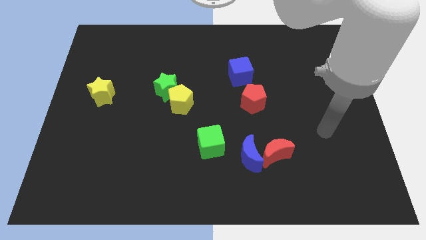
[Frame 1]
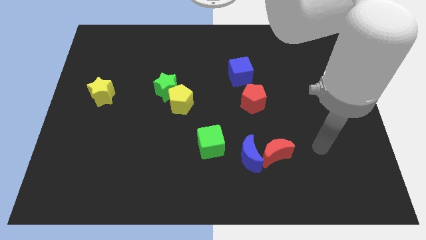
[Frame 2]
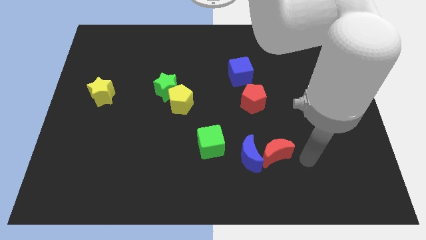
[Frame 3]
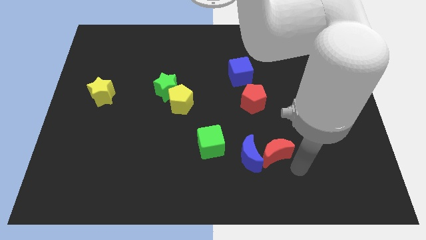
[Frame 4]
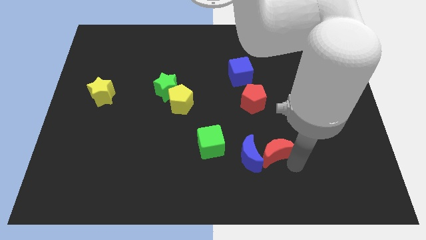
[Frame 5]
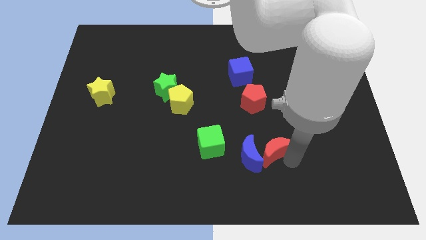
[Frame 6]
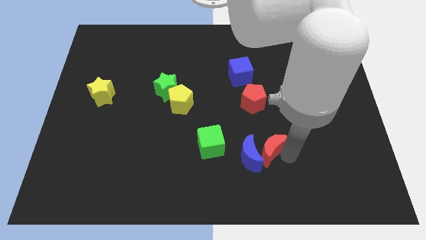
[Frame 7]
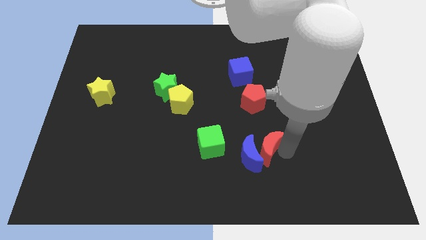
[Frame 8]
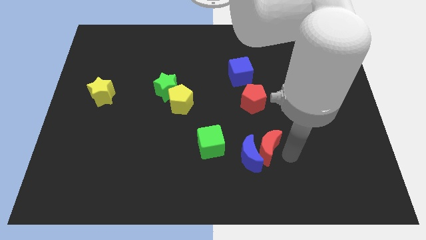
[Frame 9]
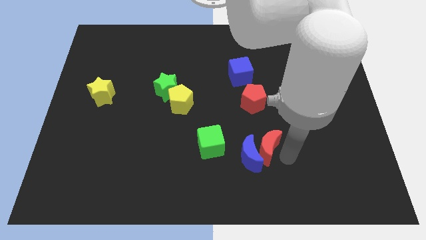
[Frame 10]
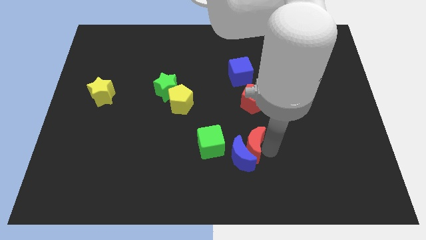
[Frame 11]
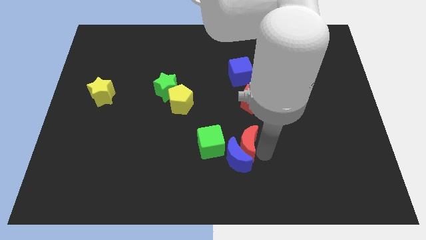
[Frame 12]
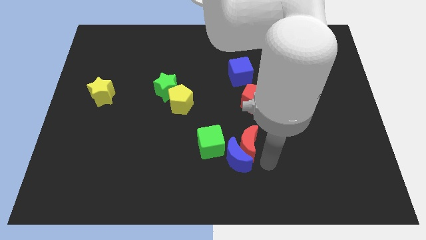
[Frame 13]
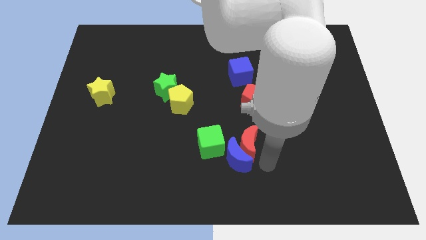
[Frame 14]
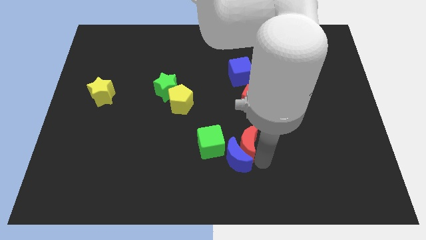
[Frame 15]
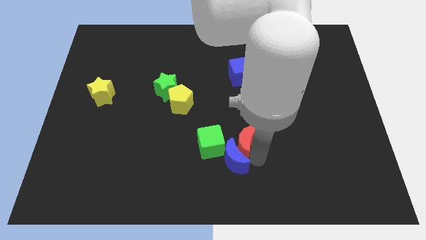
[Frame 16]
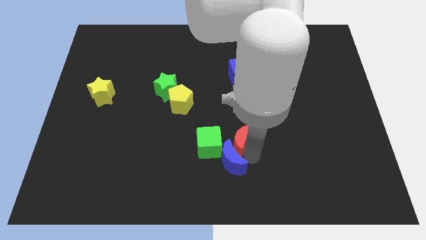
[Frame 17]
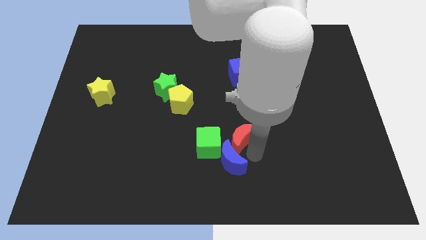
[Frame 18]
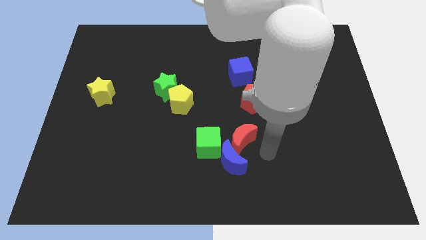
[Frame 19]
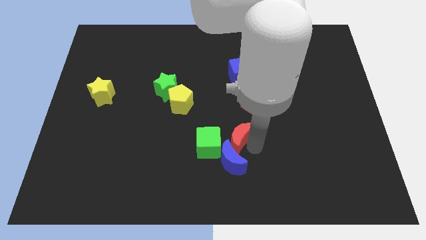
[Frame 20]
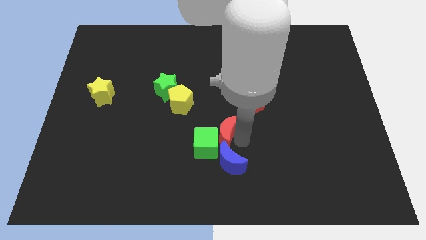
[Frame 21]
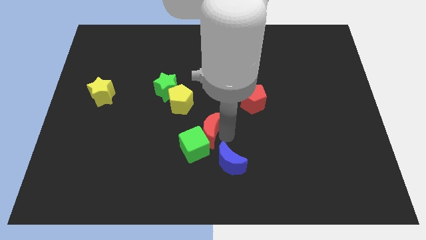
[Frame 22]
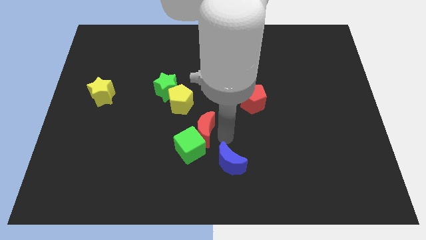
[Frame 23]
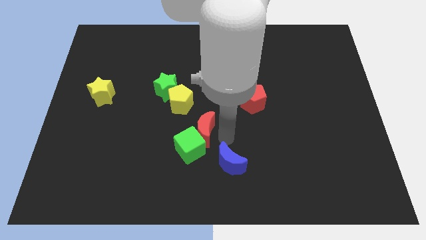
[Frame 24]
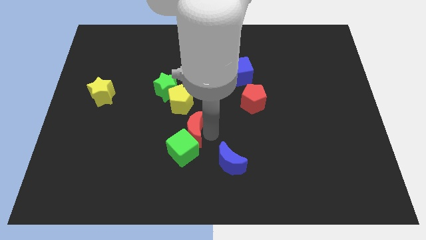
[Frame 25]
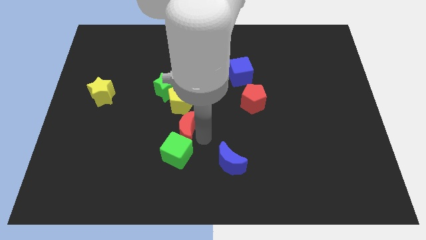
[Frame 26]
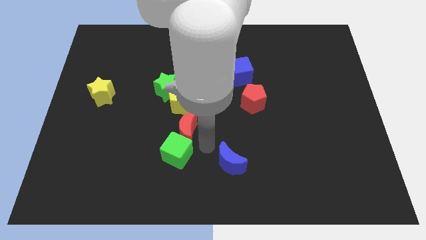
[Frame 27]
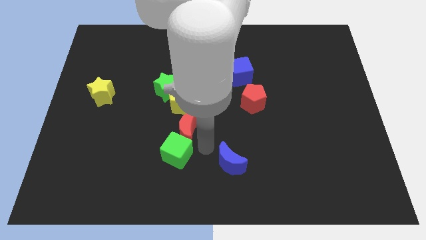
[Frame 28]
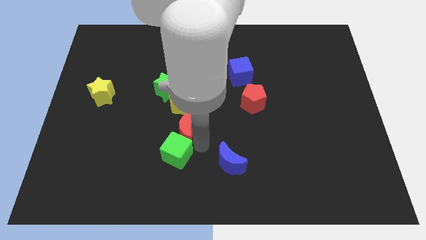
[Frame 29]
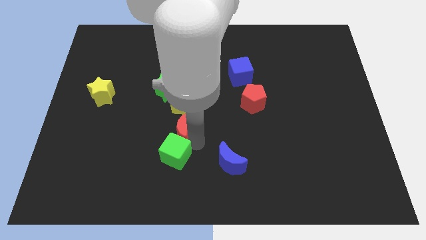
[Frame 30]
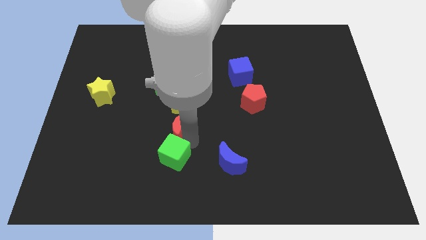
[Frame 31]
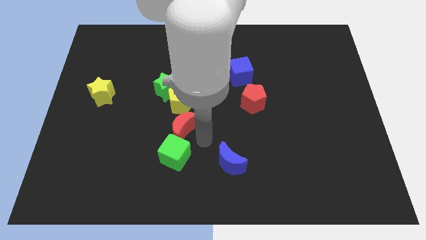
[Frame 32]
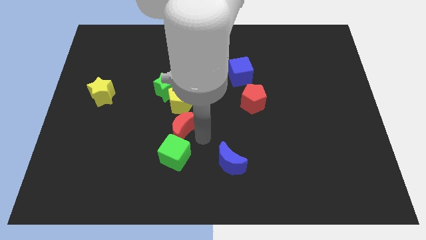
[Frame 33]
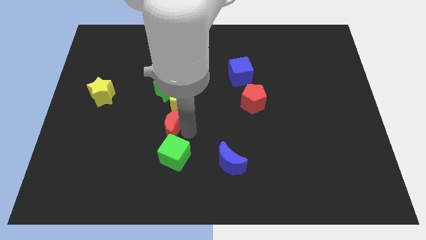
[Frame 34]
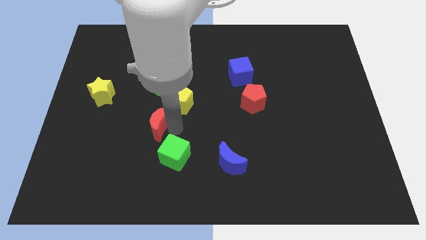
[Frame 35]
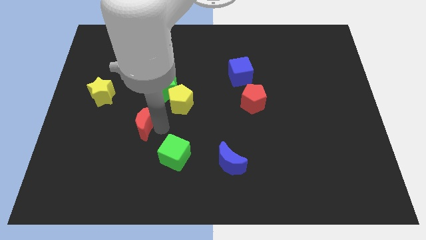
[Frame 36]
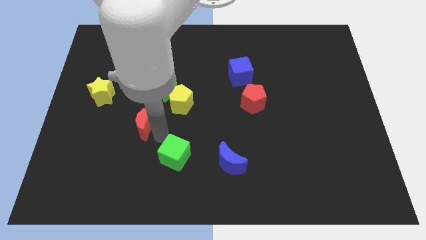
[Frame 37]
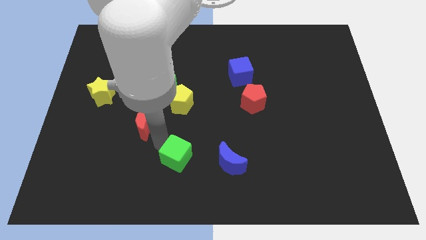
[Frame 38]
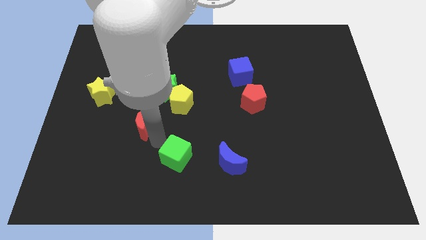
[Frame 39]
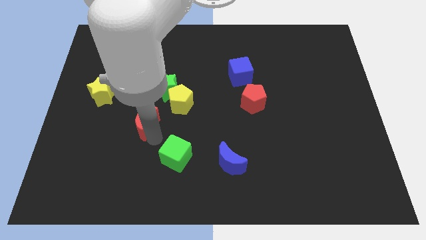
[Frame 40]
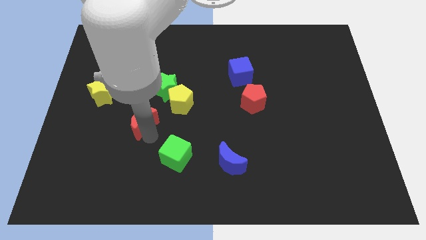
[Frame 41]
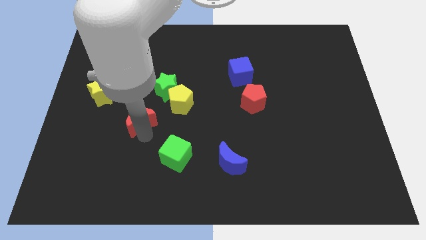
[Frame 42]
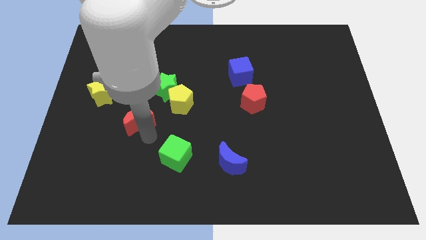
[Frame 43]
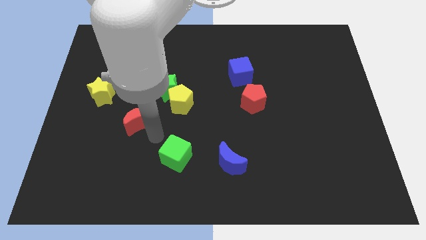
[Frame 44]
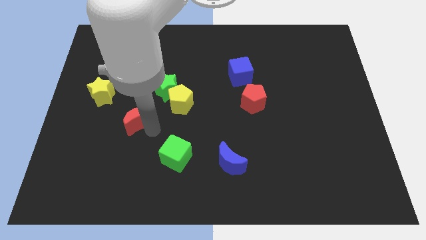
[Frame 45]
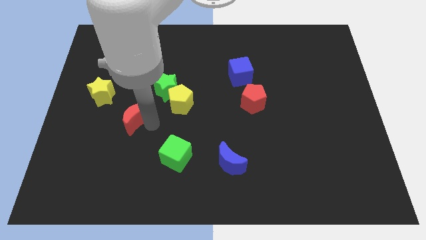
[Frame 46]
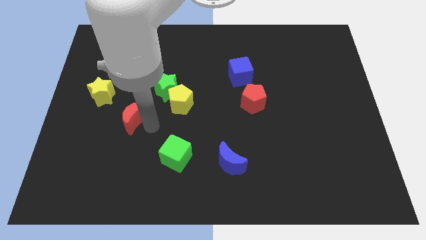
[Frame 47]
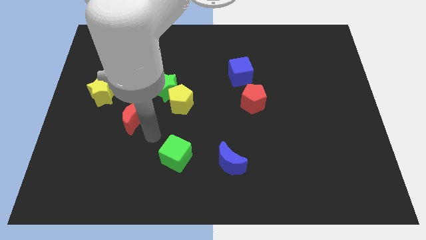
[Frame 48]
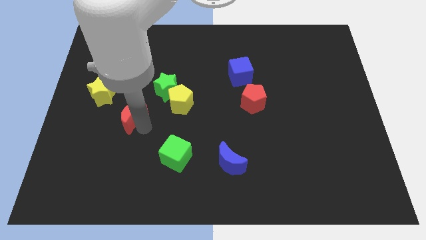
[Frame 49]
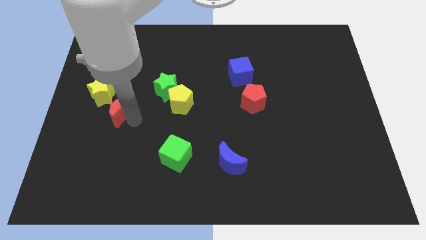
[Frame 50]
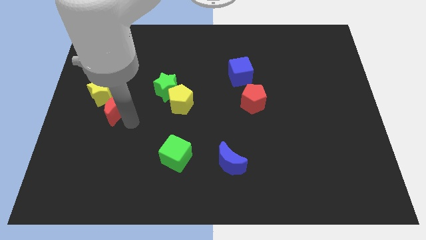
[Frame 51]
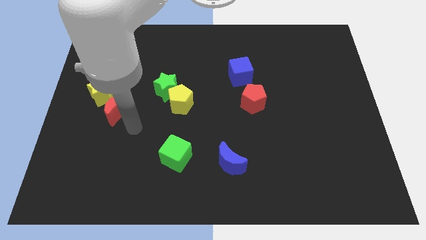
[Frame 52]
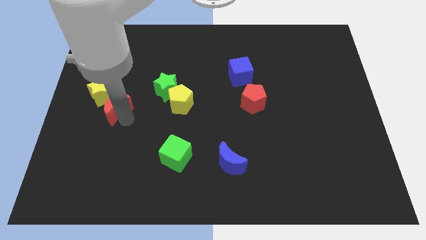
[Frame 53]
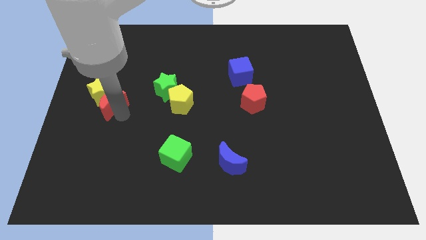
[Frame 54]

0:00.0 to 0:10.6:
push the red moon to the yellow star

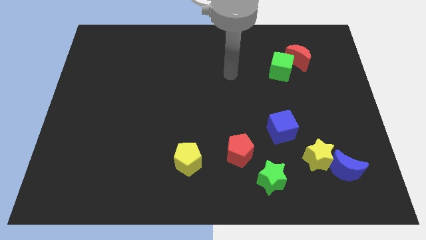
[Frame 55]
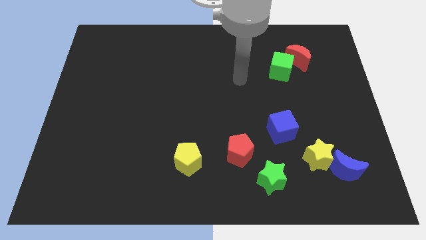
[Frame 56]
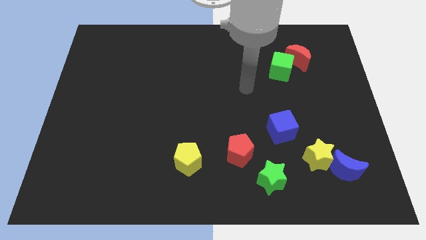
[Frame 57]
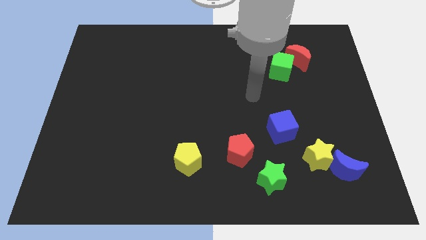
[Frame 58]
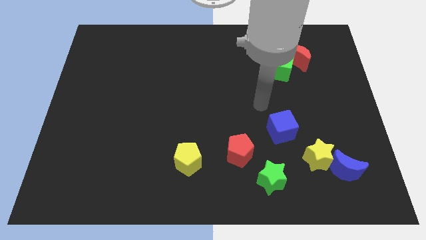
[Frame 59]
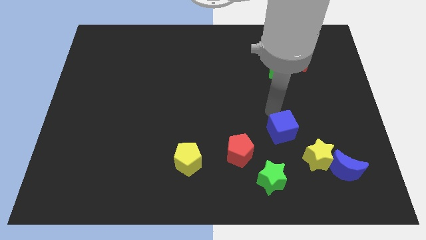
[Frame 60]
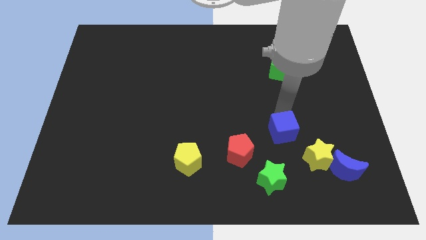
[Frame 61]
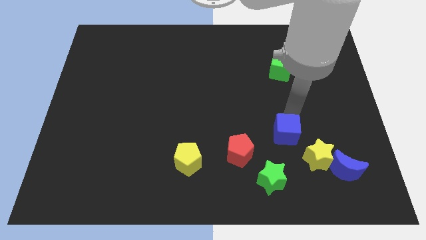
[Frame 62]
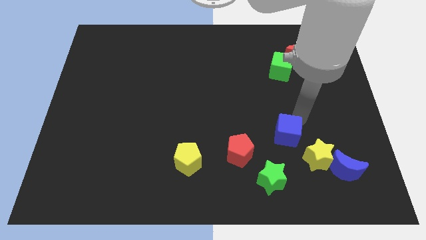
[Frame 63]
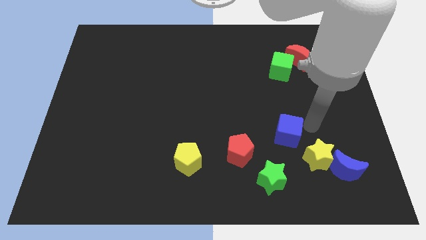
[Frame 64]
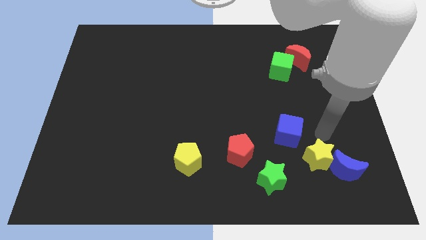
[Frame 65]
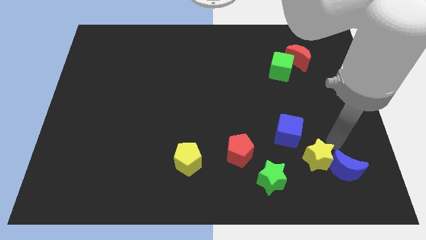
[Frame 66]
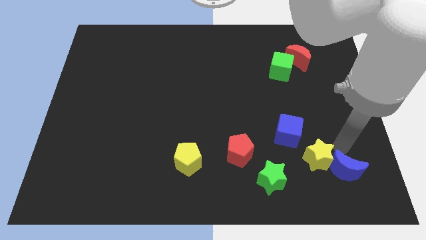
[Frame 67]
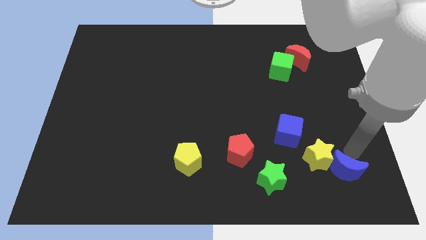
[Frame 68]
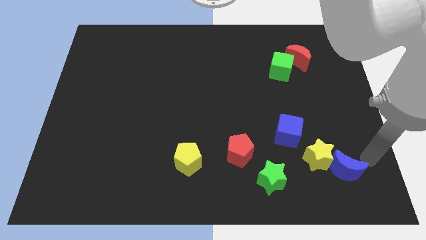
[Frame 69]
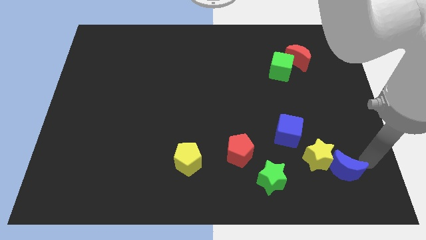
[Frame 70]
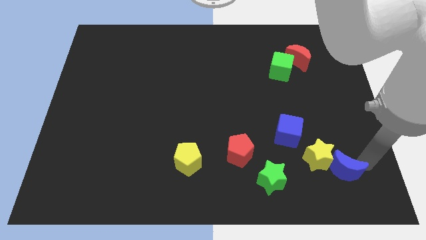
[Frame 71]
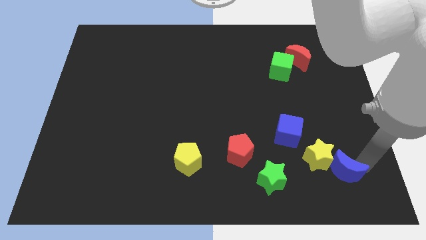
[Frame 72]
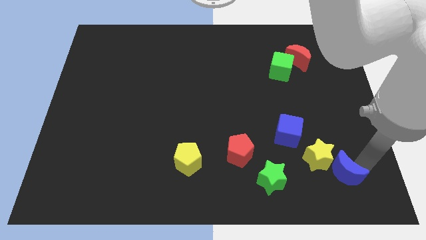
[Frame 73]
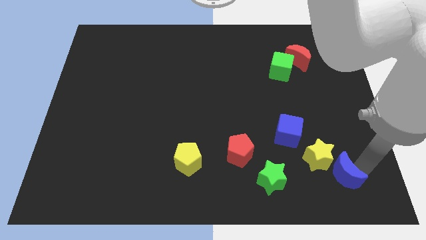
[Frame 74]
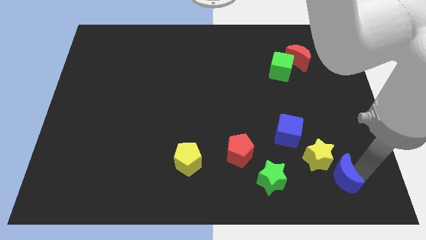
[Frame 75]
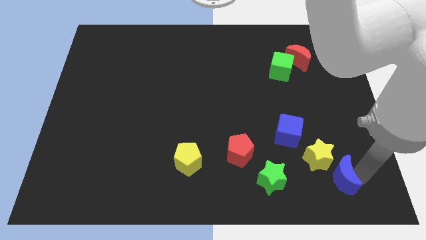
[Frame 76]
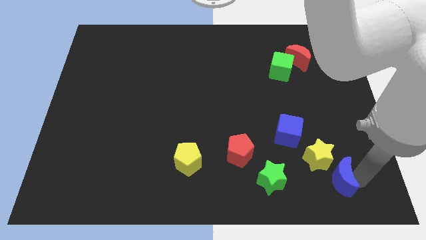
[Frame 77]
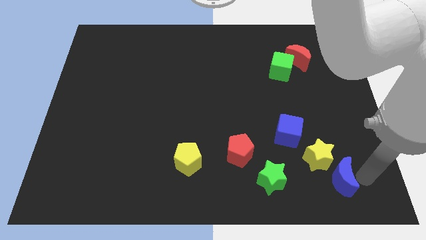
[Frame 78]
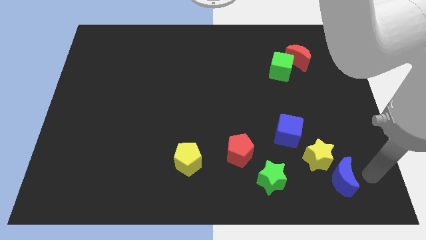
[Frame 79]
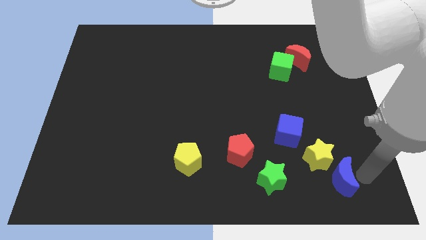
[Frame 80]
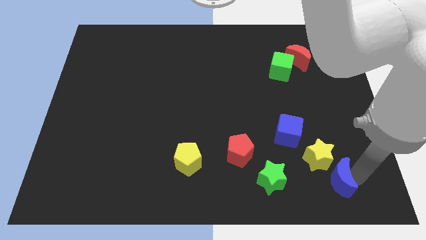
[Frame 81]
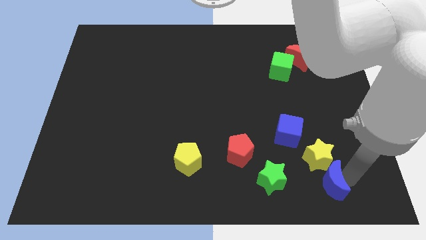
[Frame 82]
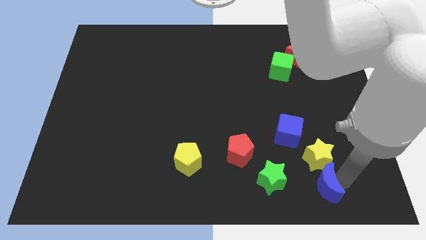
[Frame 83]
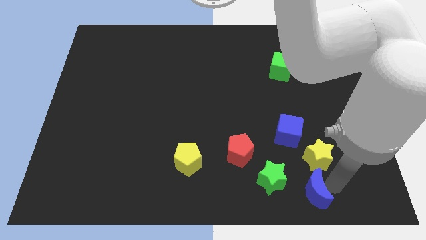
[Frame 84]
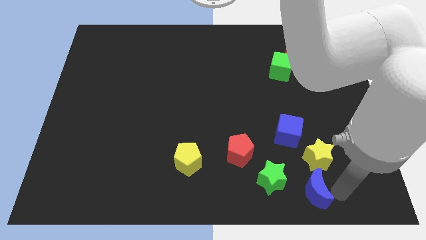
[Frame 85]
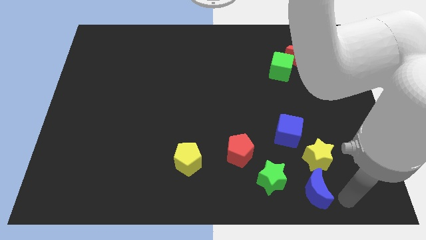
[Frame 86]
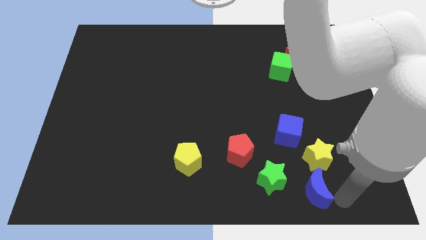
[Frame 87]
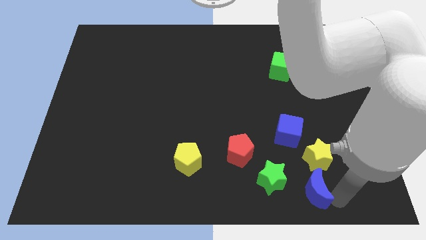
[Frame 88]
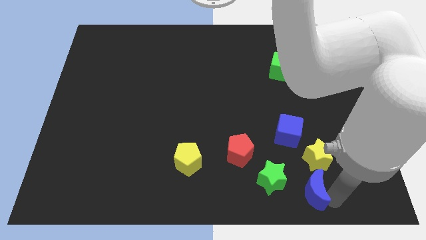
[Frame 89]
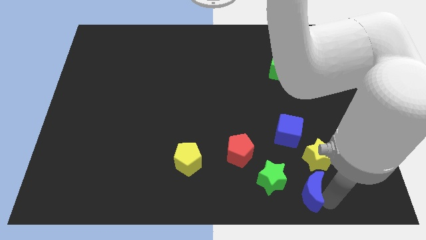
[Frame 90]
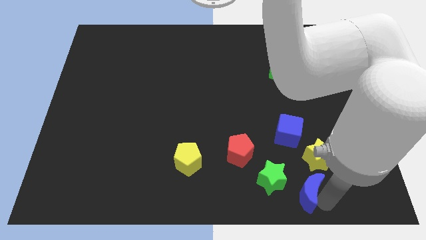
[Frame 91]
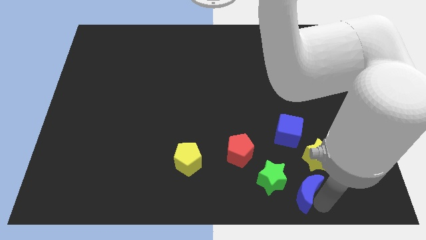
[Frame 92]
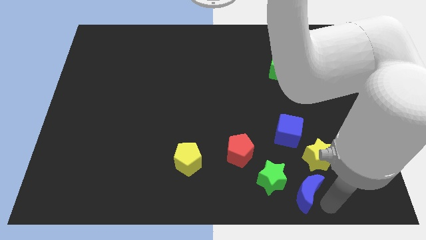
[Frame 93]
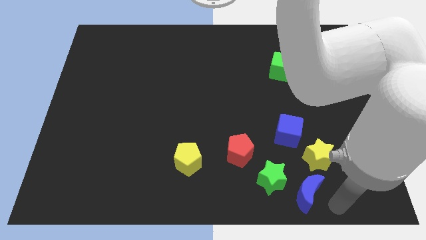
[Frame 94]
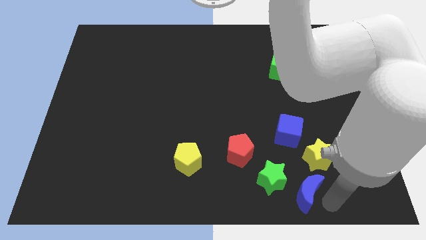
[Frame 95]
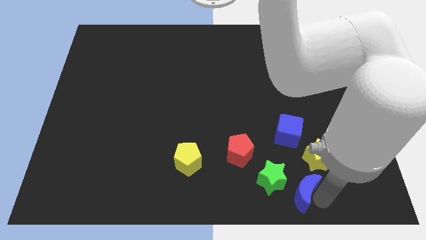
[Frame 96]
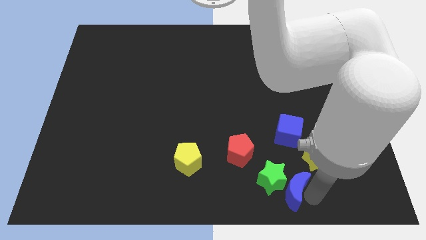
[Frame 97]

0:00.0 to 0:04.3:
put the blue moon close to the green star
